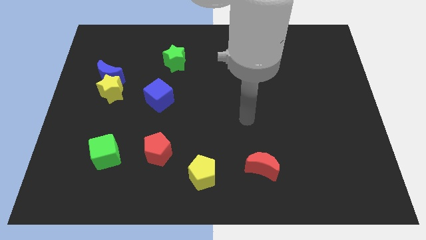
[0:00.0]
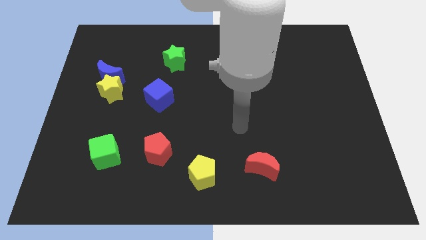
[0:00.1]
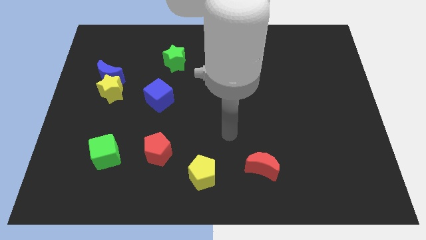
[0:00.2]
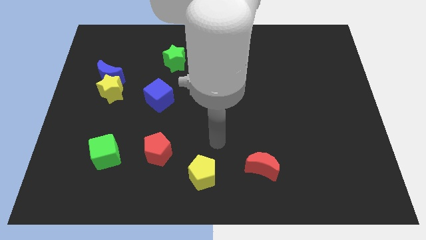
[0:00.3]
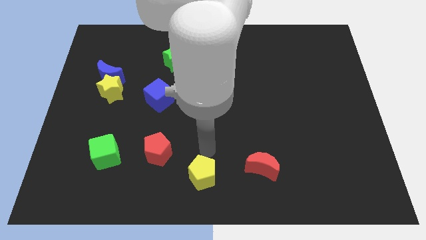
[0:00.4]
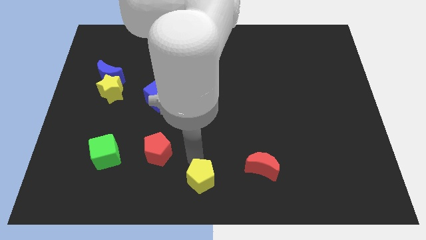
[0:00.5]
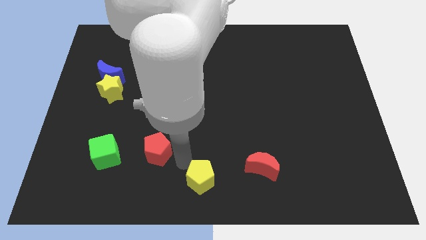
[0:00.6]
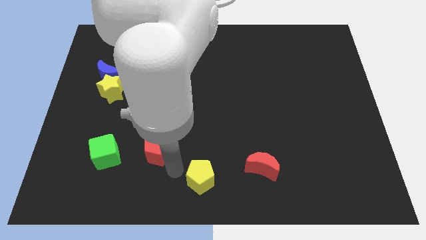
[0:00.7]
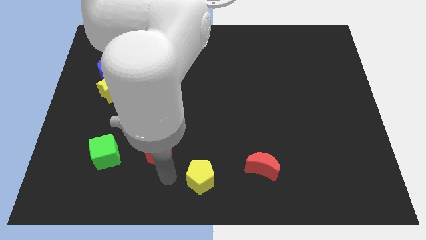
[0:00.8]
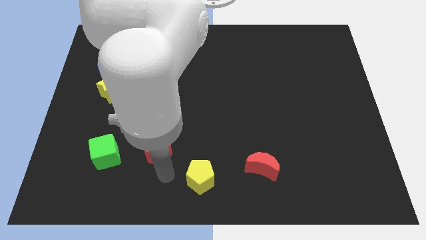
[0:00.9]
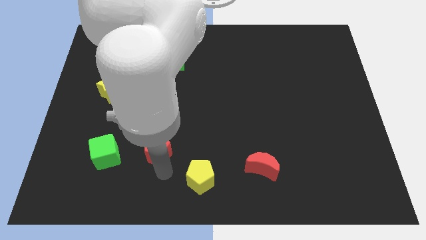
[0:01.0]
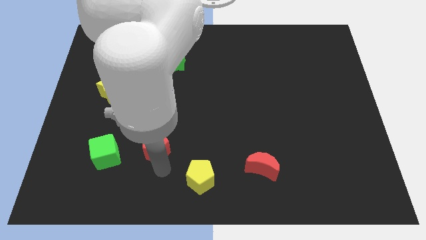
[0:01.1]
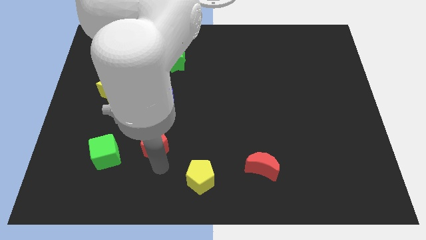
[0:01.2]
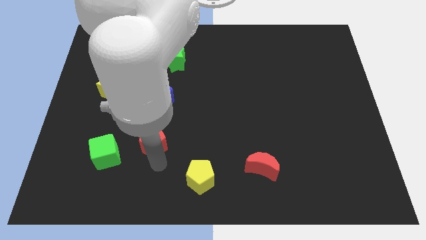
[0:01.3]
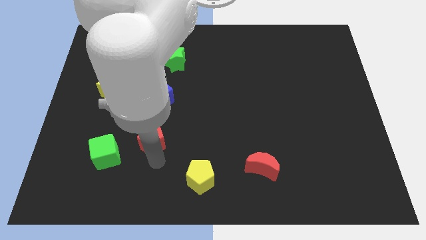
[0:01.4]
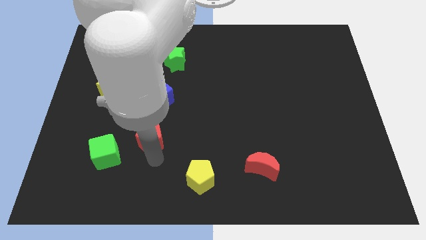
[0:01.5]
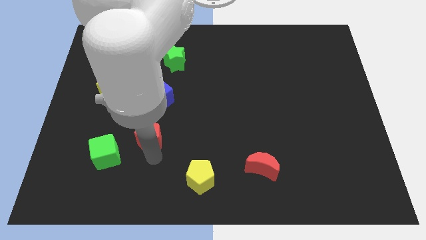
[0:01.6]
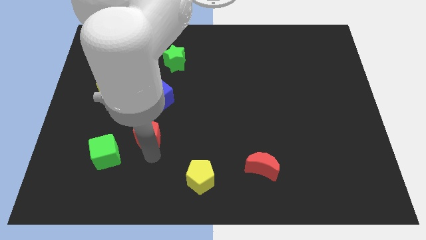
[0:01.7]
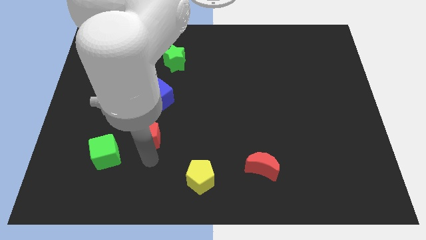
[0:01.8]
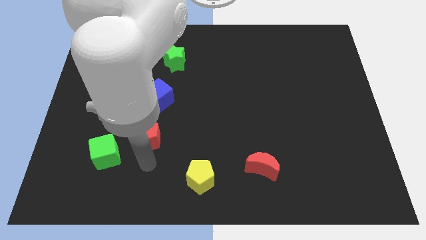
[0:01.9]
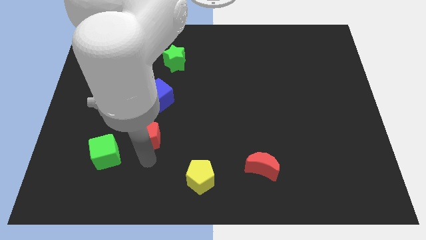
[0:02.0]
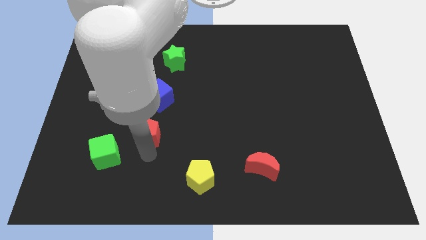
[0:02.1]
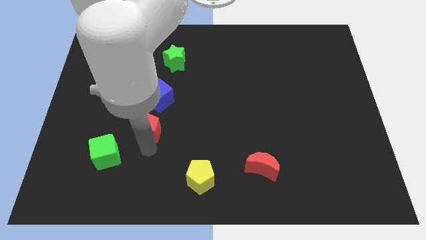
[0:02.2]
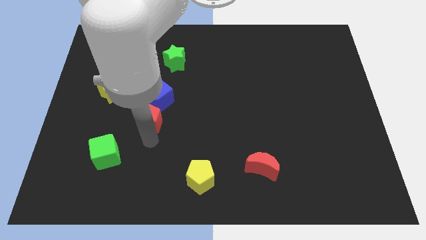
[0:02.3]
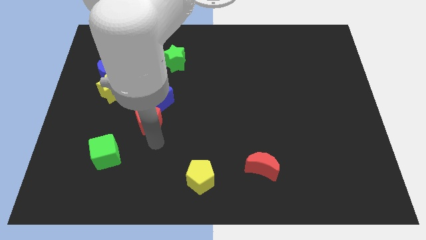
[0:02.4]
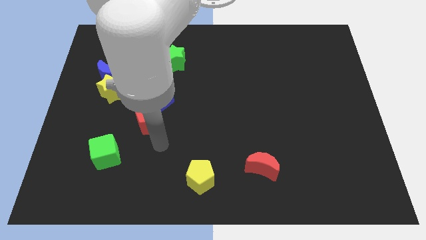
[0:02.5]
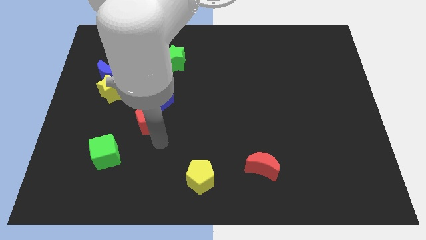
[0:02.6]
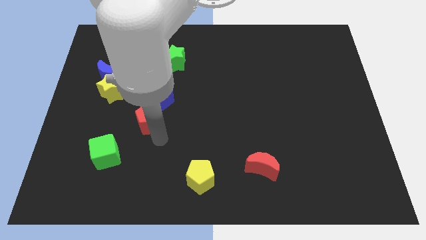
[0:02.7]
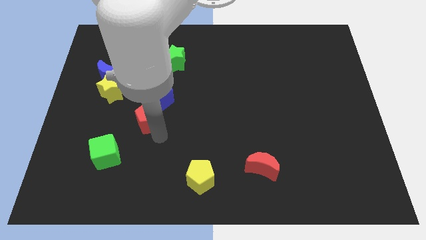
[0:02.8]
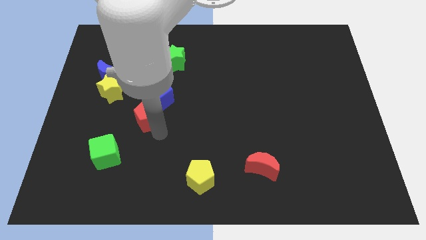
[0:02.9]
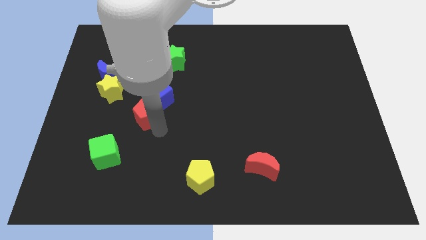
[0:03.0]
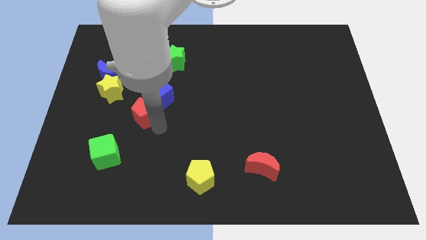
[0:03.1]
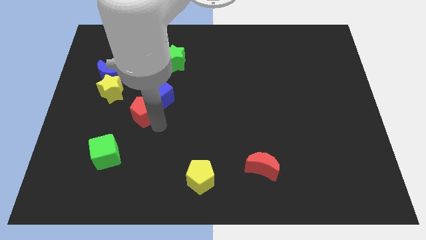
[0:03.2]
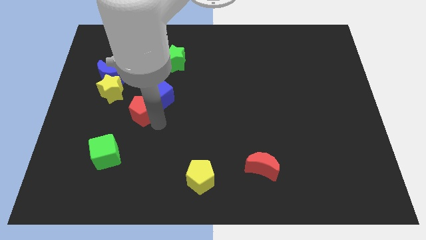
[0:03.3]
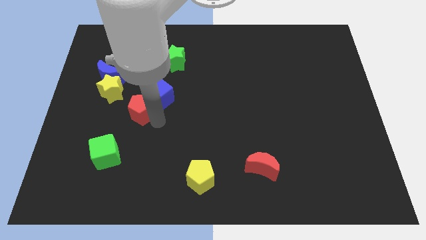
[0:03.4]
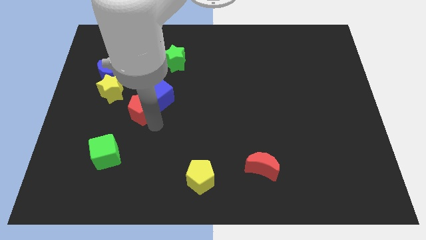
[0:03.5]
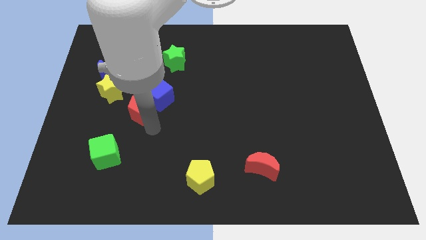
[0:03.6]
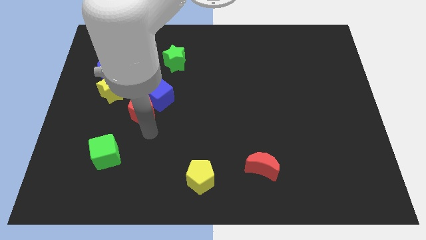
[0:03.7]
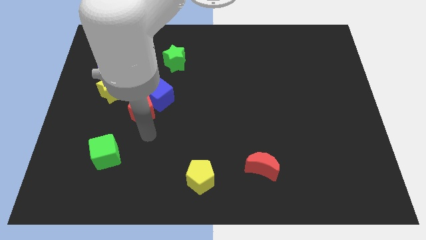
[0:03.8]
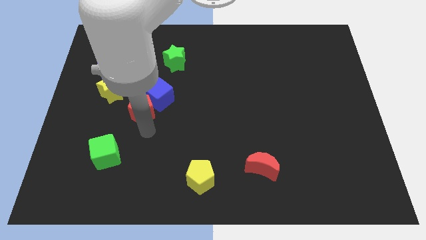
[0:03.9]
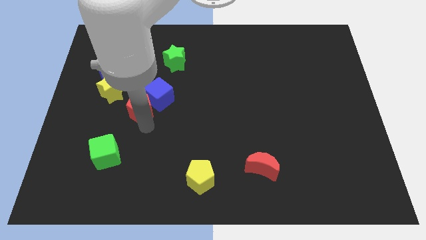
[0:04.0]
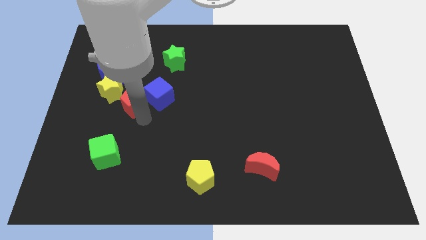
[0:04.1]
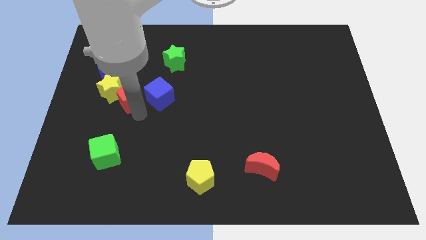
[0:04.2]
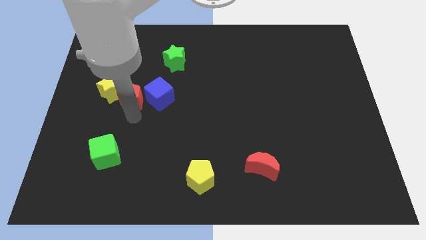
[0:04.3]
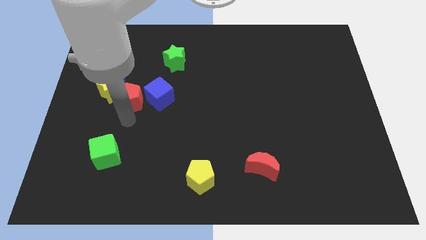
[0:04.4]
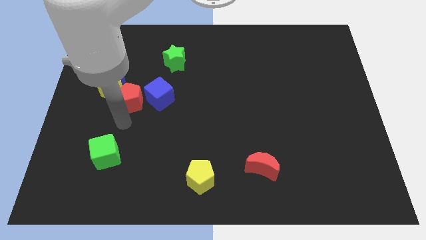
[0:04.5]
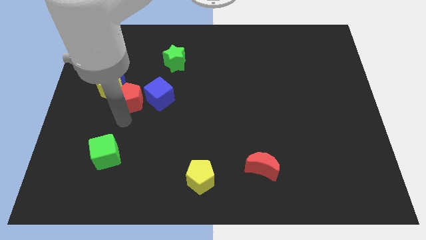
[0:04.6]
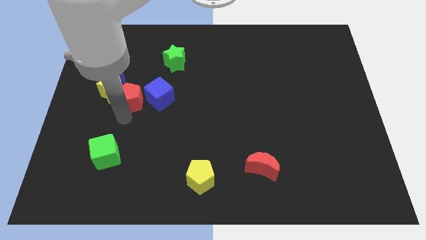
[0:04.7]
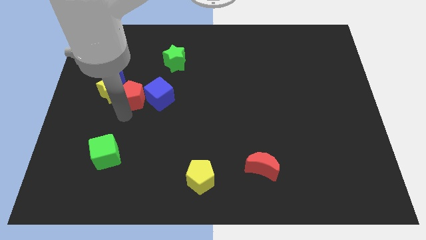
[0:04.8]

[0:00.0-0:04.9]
slide the red pentagon to the top left of the blue cube

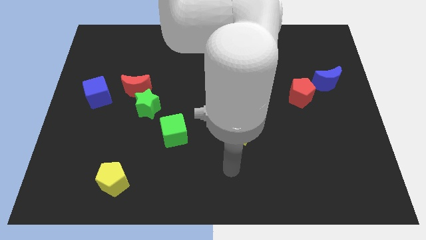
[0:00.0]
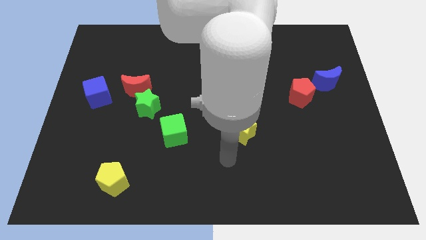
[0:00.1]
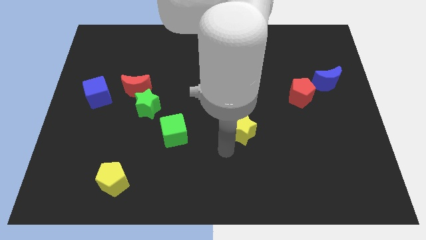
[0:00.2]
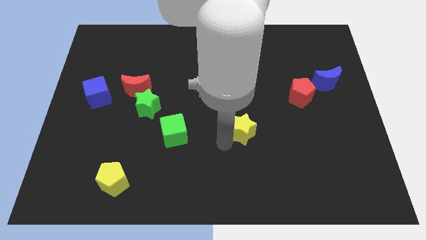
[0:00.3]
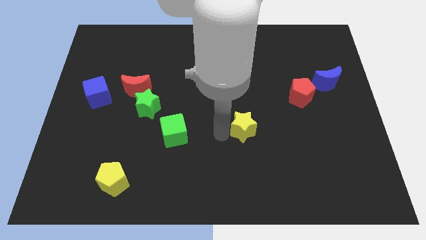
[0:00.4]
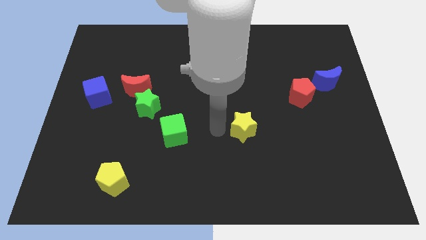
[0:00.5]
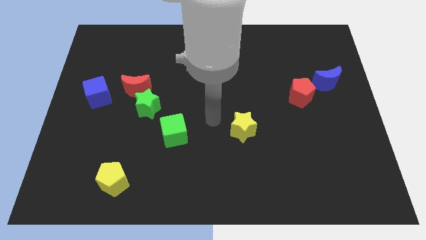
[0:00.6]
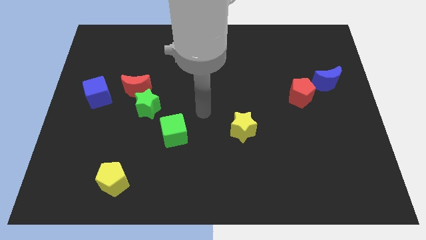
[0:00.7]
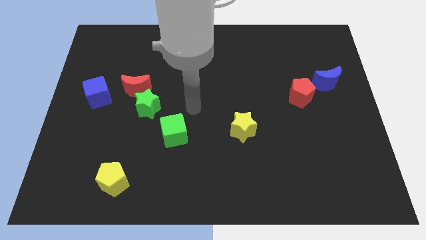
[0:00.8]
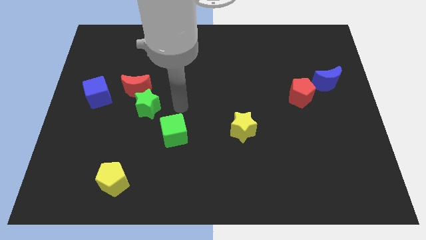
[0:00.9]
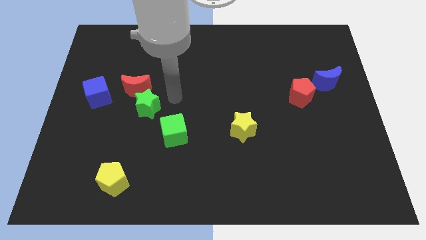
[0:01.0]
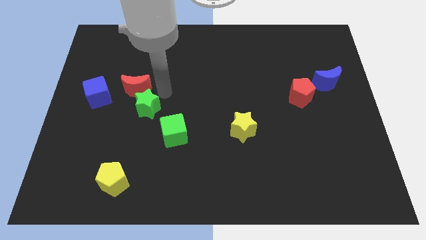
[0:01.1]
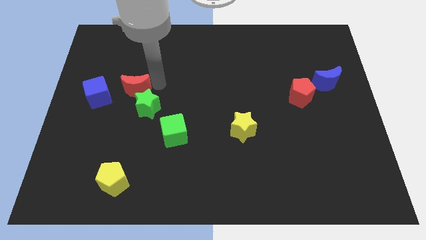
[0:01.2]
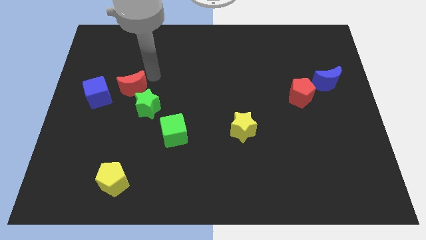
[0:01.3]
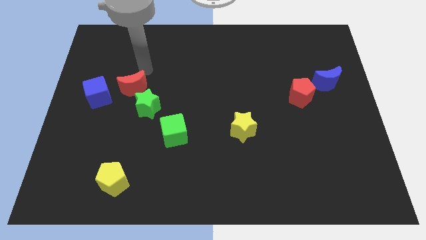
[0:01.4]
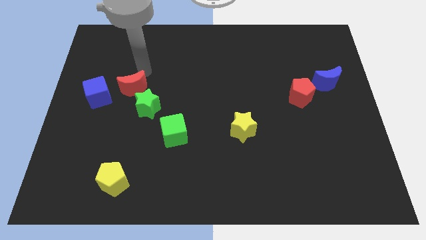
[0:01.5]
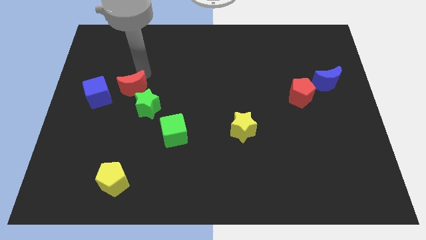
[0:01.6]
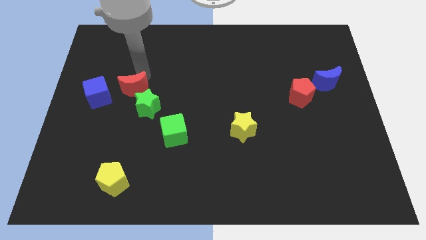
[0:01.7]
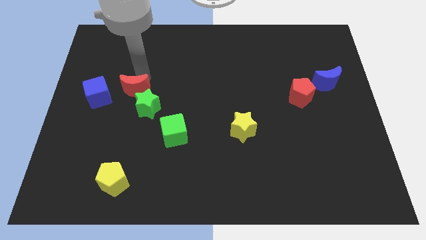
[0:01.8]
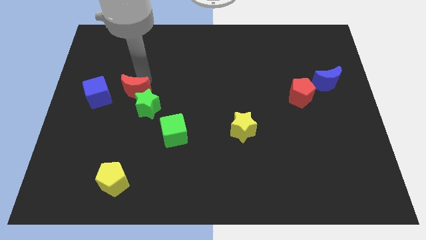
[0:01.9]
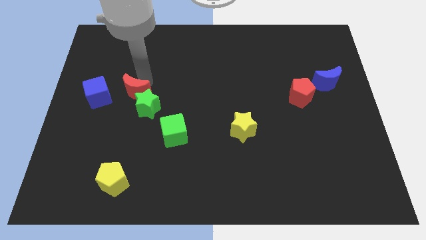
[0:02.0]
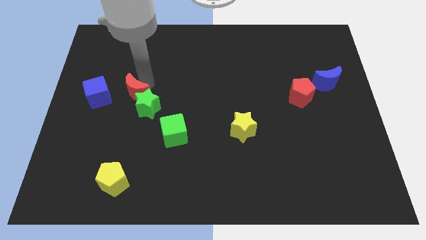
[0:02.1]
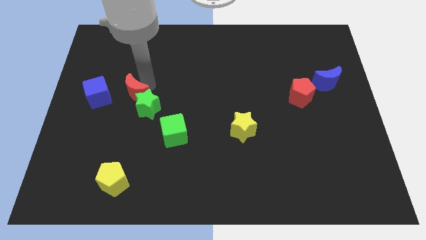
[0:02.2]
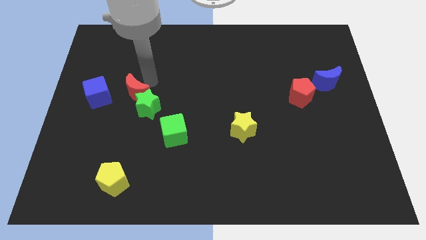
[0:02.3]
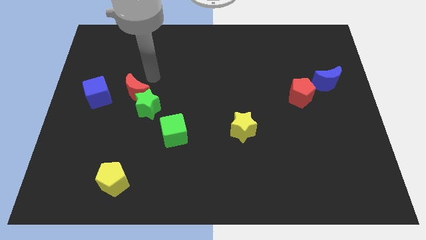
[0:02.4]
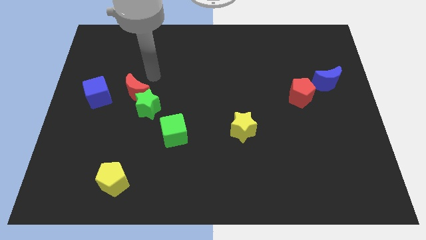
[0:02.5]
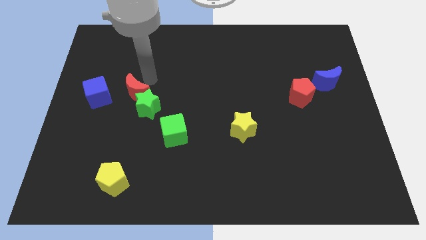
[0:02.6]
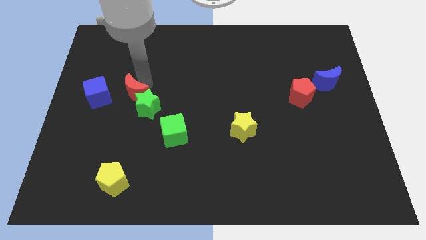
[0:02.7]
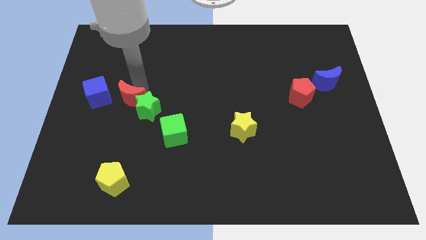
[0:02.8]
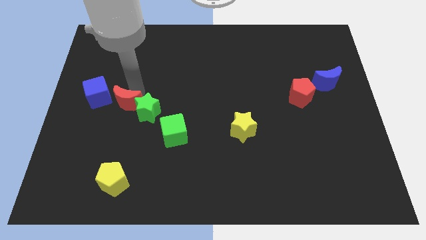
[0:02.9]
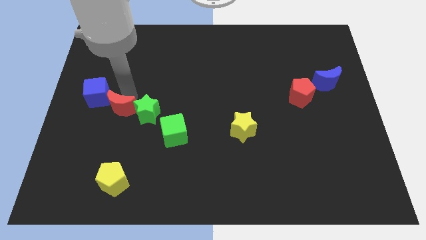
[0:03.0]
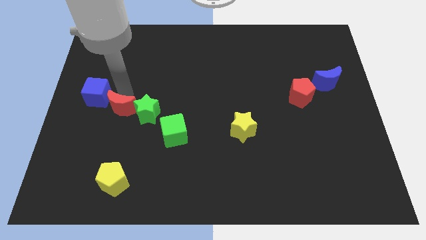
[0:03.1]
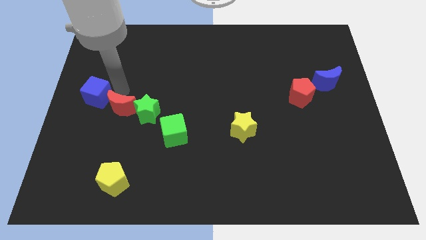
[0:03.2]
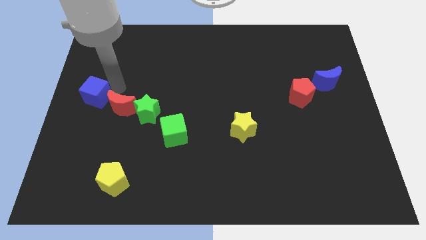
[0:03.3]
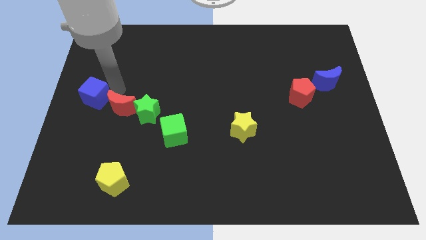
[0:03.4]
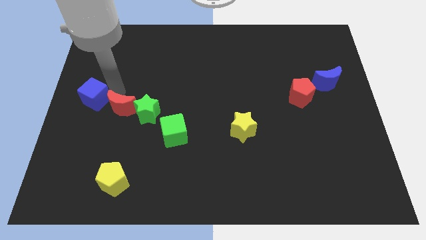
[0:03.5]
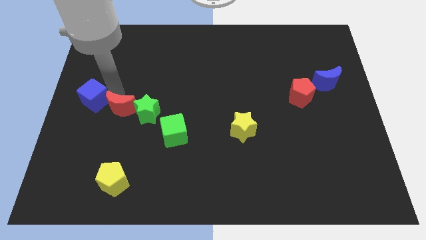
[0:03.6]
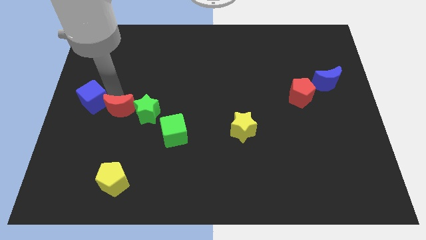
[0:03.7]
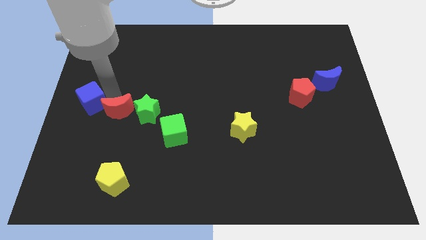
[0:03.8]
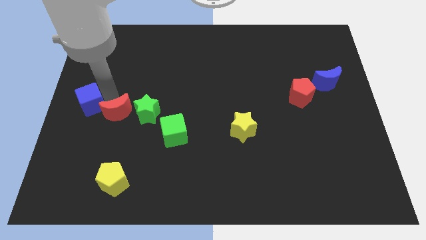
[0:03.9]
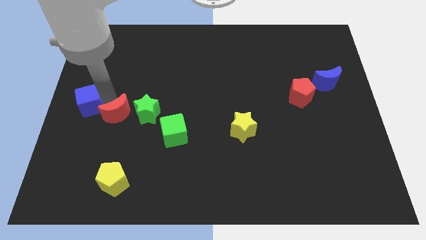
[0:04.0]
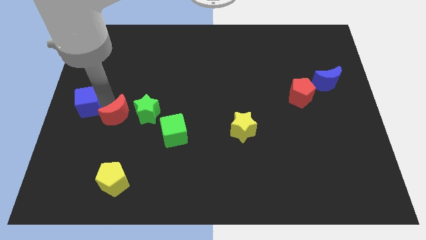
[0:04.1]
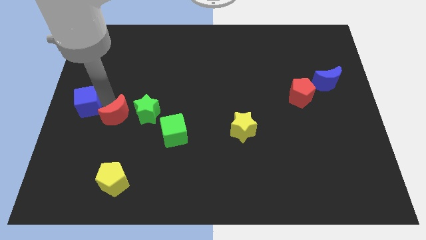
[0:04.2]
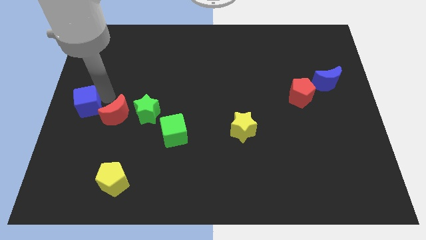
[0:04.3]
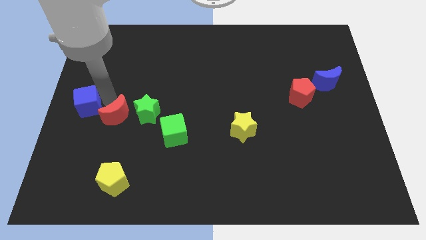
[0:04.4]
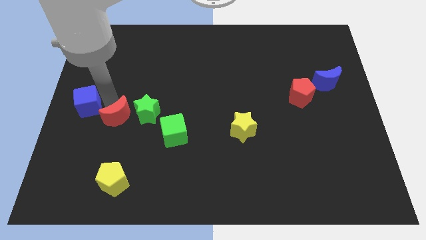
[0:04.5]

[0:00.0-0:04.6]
move the red moon left of the green cube
